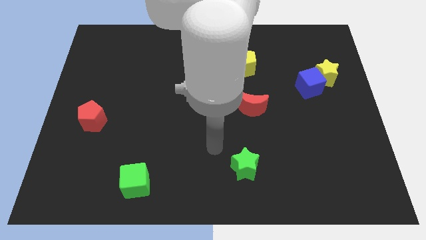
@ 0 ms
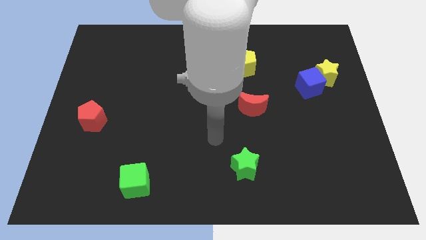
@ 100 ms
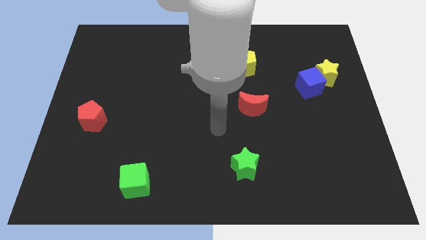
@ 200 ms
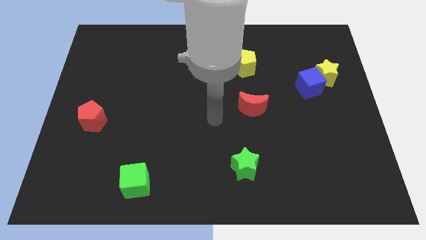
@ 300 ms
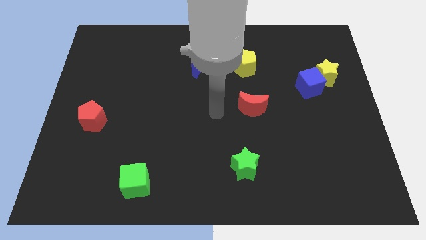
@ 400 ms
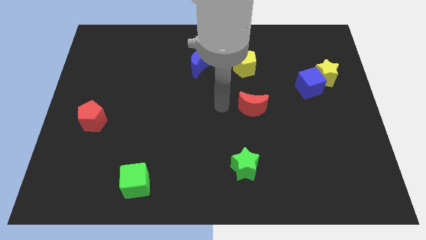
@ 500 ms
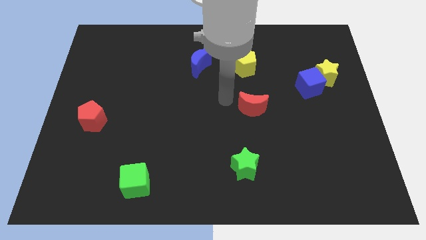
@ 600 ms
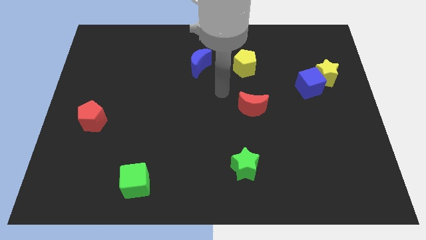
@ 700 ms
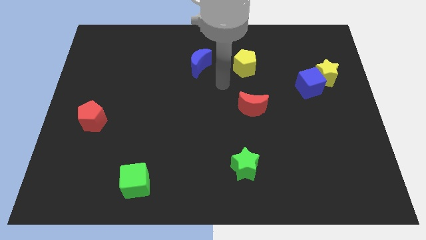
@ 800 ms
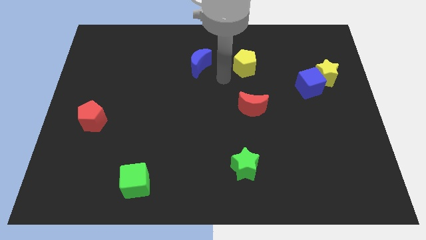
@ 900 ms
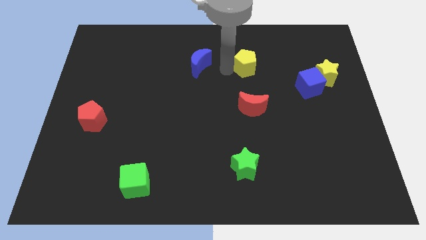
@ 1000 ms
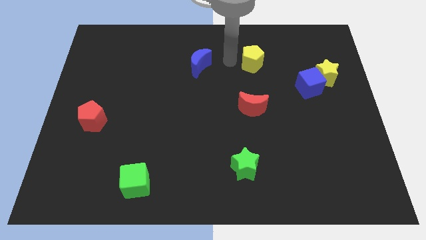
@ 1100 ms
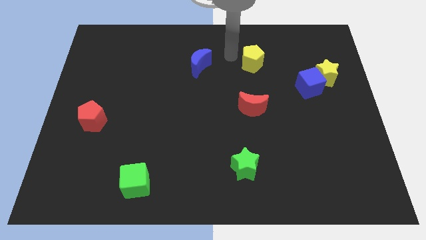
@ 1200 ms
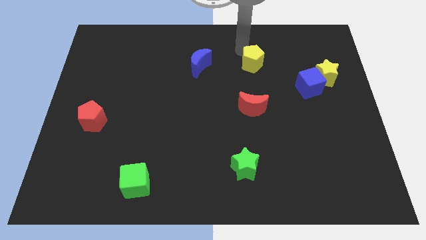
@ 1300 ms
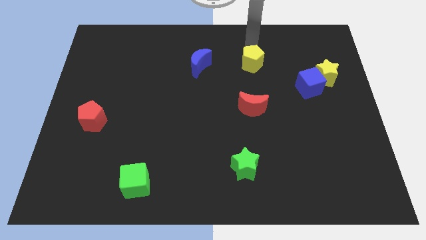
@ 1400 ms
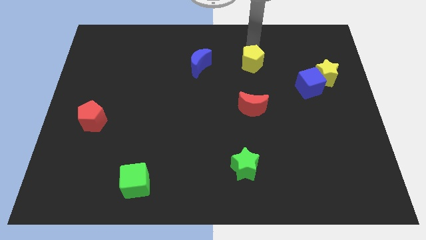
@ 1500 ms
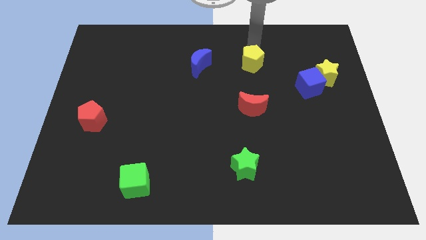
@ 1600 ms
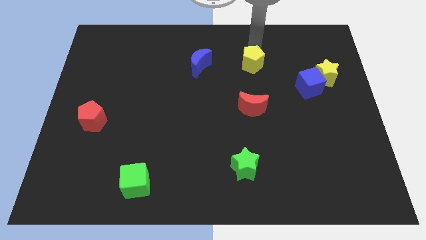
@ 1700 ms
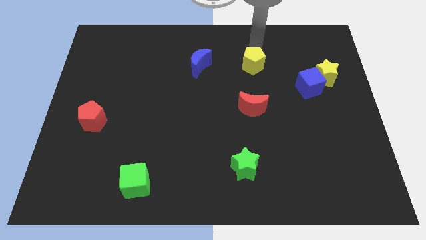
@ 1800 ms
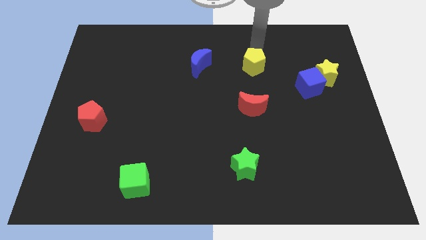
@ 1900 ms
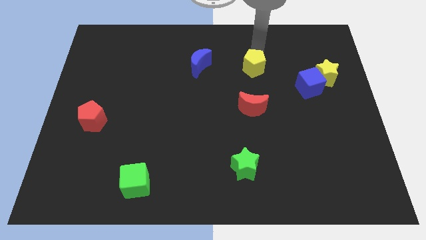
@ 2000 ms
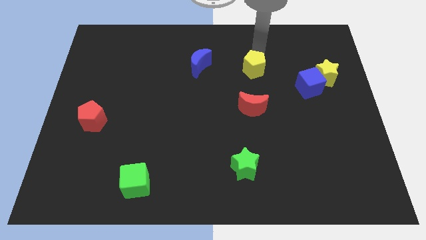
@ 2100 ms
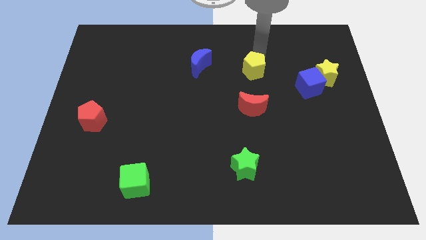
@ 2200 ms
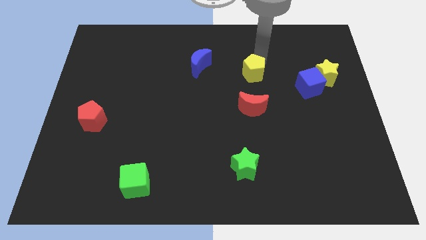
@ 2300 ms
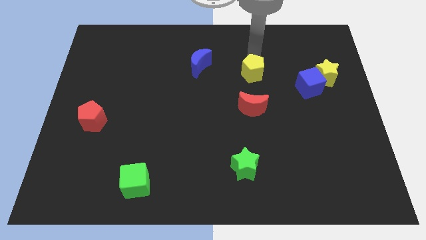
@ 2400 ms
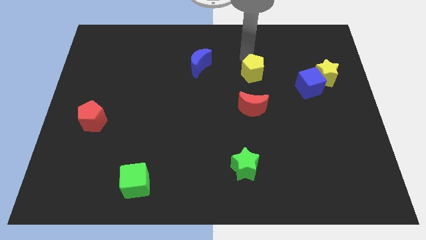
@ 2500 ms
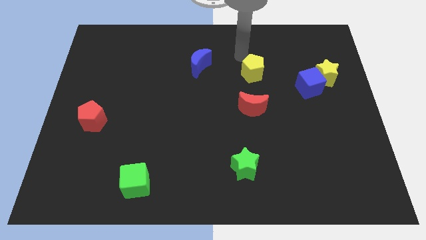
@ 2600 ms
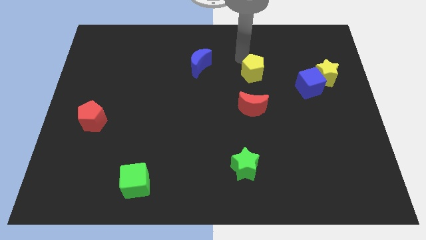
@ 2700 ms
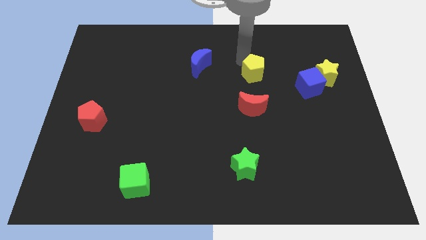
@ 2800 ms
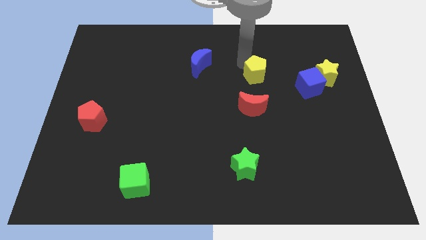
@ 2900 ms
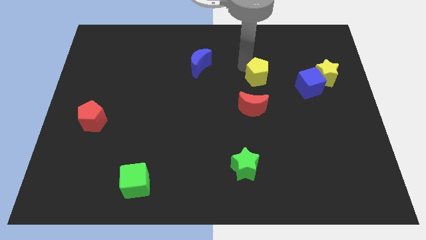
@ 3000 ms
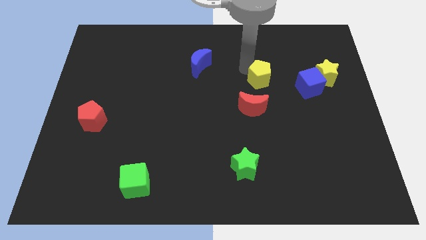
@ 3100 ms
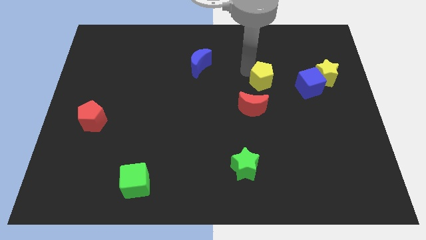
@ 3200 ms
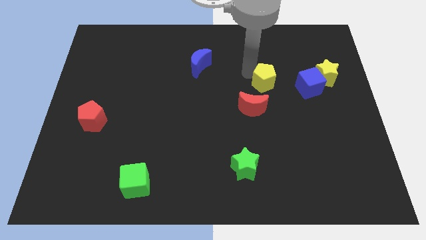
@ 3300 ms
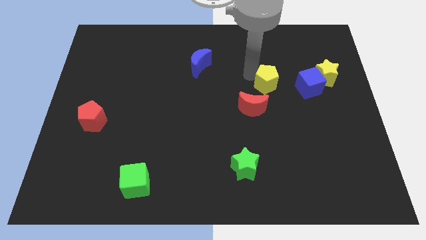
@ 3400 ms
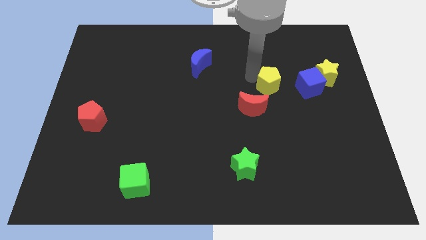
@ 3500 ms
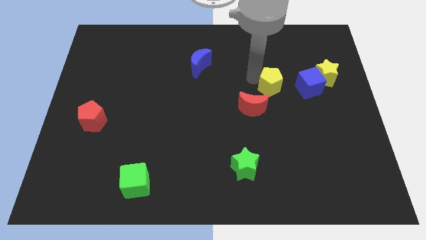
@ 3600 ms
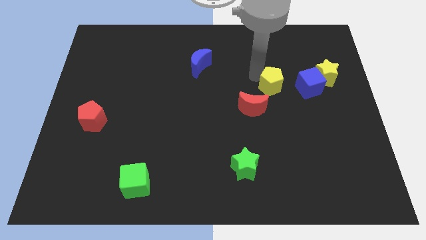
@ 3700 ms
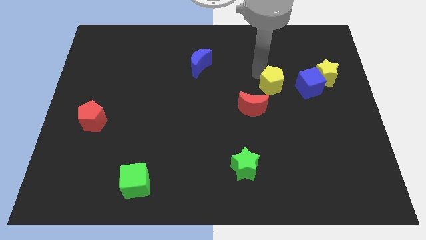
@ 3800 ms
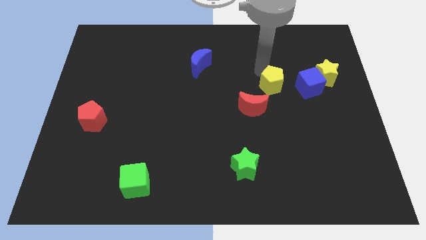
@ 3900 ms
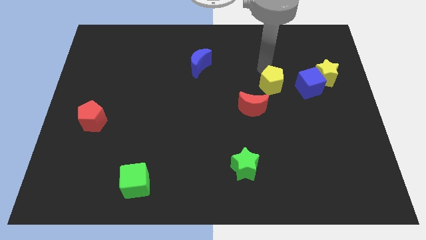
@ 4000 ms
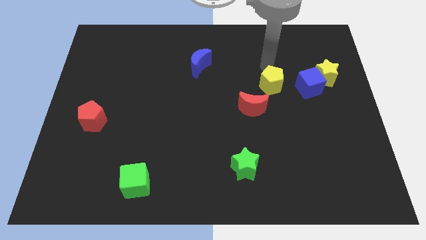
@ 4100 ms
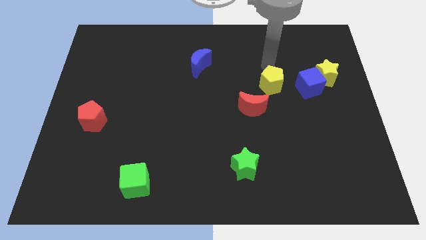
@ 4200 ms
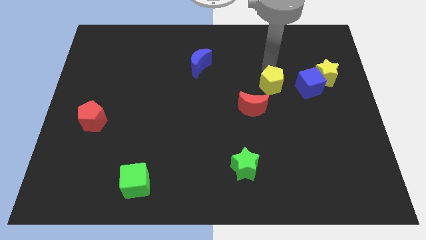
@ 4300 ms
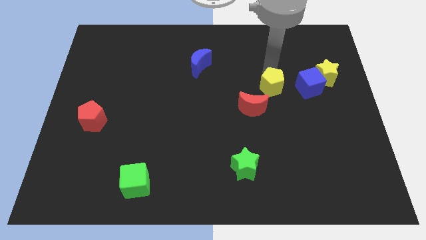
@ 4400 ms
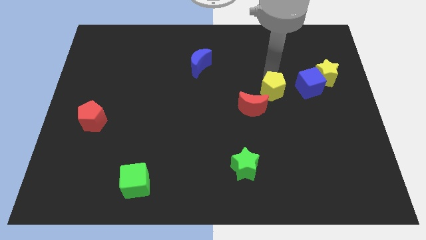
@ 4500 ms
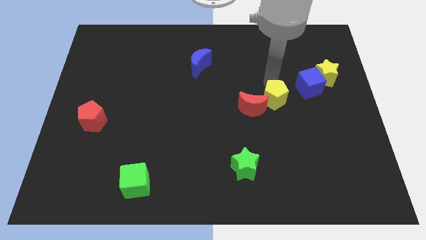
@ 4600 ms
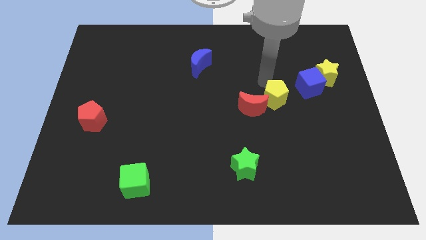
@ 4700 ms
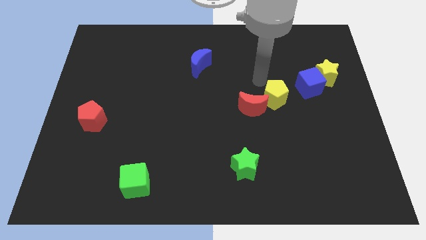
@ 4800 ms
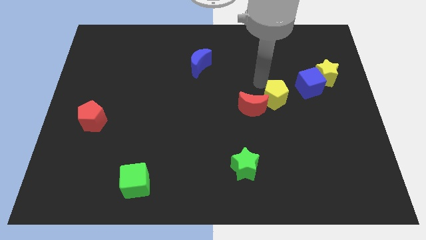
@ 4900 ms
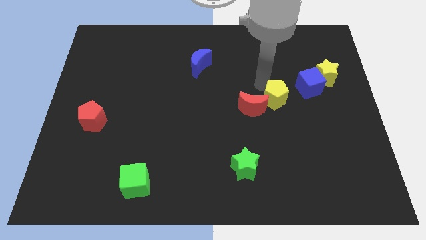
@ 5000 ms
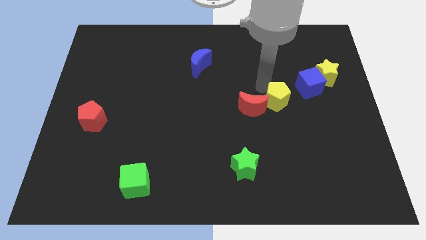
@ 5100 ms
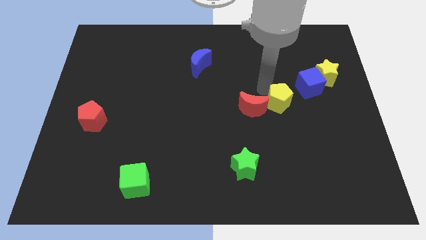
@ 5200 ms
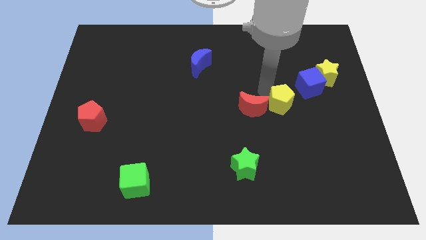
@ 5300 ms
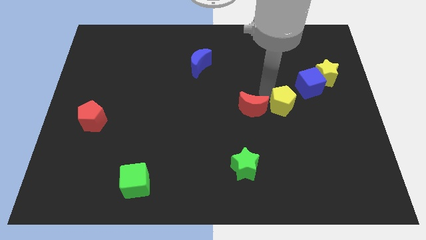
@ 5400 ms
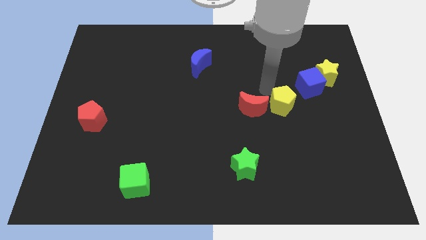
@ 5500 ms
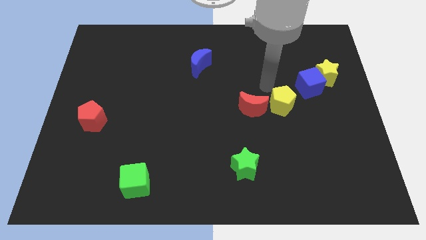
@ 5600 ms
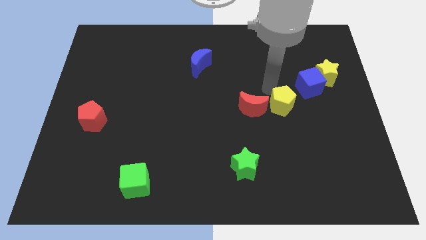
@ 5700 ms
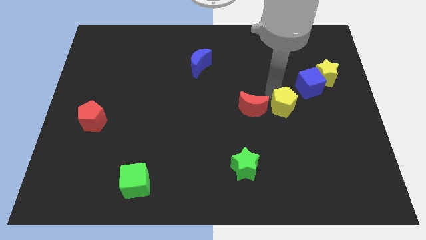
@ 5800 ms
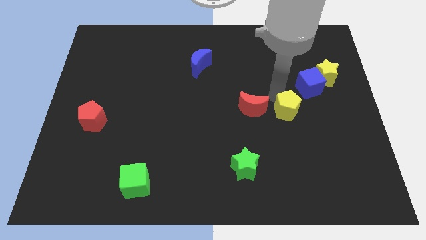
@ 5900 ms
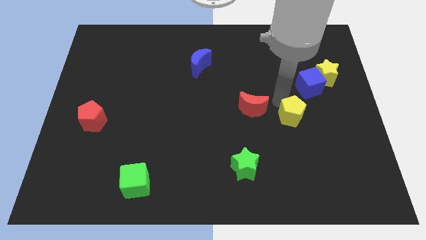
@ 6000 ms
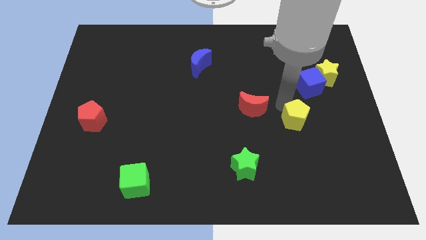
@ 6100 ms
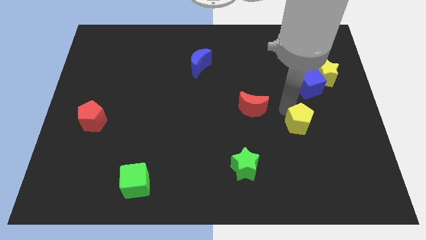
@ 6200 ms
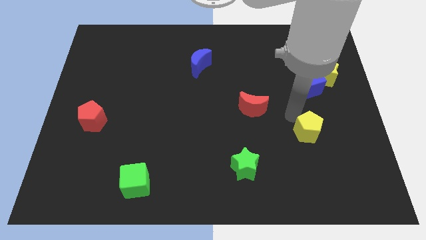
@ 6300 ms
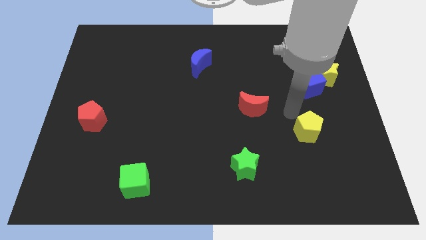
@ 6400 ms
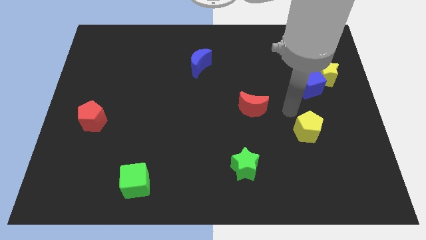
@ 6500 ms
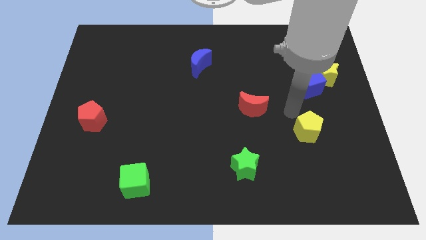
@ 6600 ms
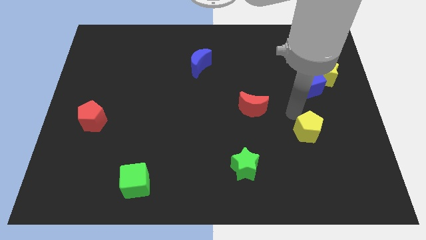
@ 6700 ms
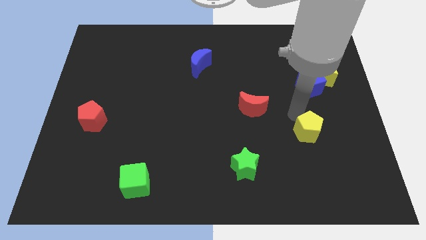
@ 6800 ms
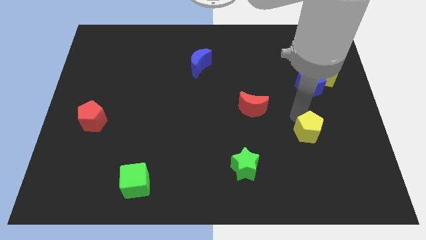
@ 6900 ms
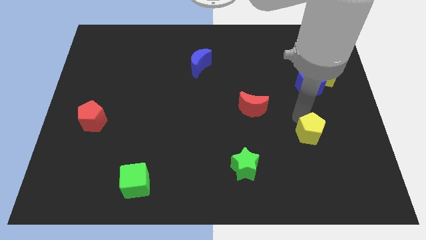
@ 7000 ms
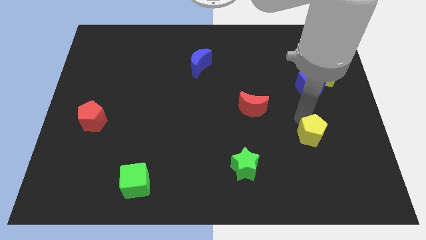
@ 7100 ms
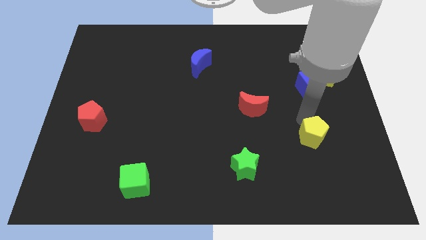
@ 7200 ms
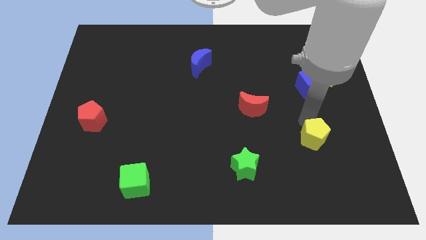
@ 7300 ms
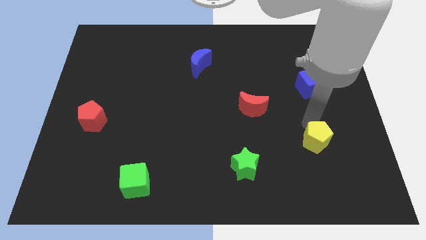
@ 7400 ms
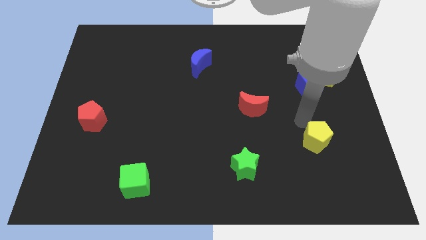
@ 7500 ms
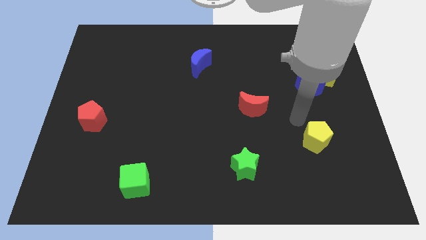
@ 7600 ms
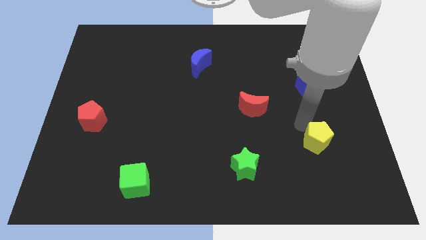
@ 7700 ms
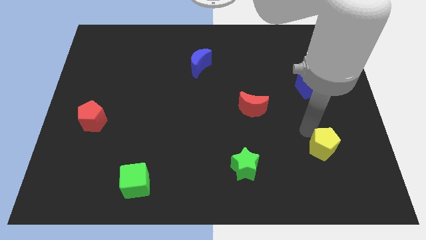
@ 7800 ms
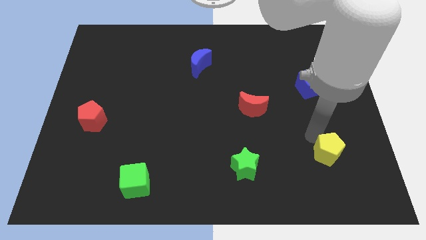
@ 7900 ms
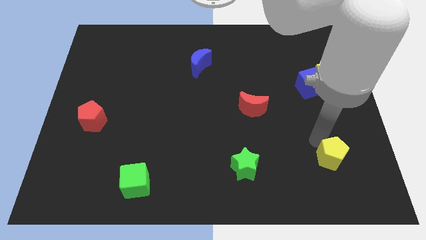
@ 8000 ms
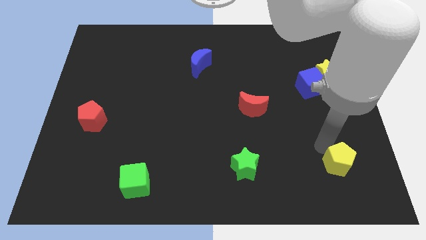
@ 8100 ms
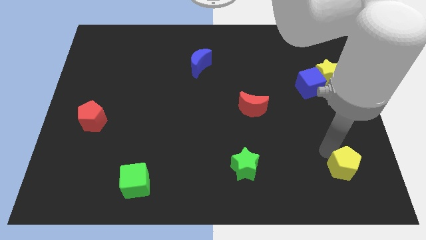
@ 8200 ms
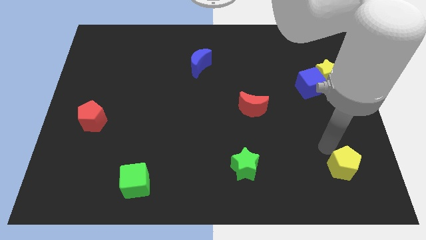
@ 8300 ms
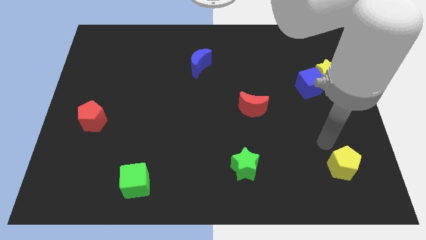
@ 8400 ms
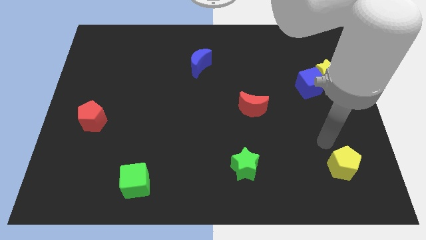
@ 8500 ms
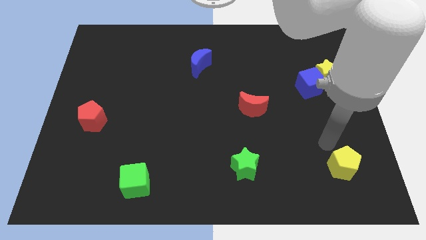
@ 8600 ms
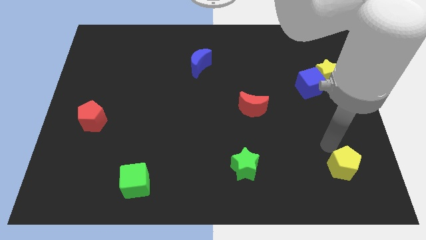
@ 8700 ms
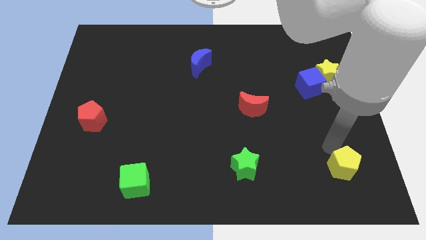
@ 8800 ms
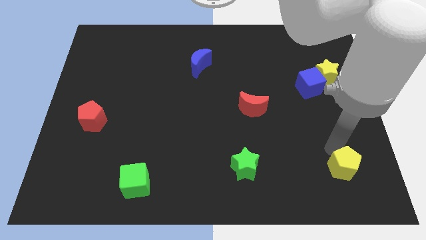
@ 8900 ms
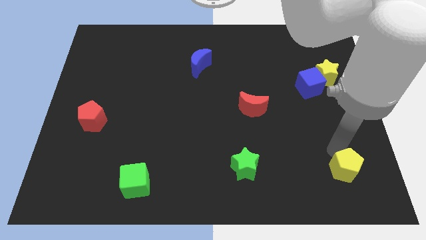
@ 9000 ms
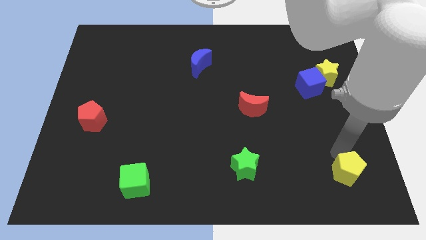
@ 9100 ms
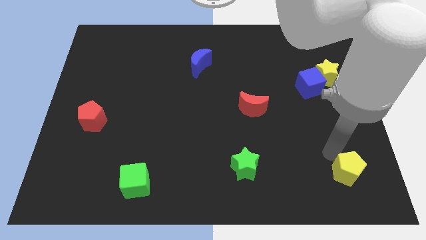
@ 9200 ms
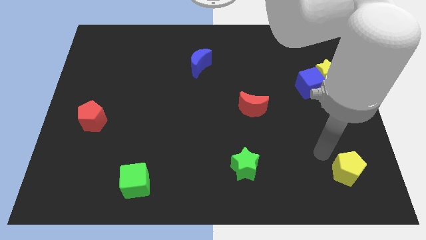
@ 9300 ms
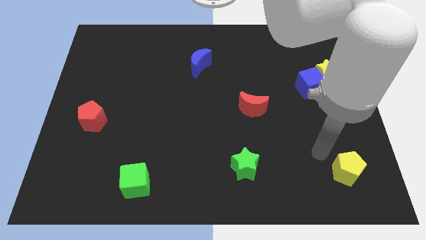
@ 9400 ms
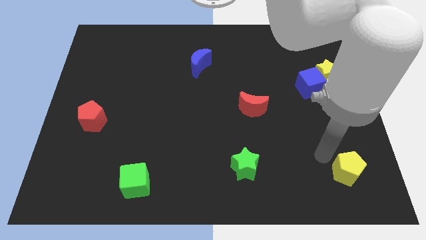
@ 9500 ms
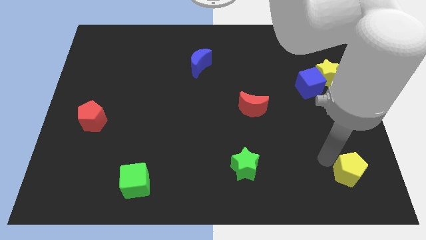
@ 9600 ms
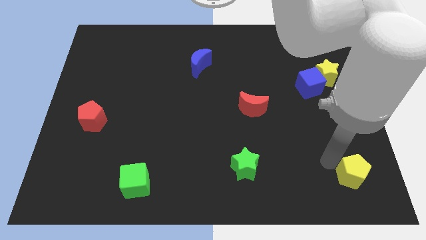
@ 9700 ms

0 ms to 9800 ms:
push the yellow pentagon to the bottom right of the board
